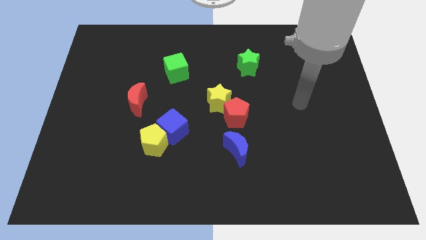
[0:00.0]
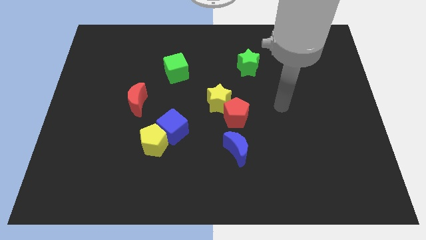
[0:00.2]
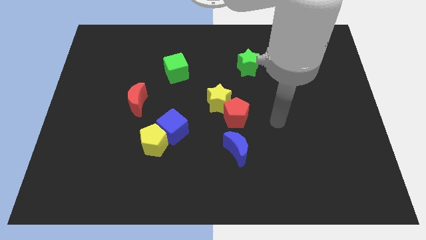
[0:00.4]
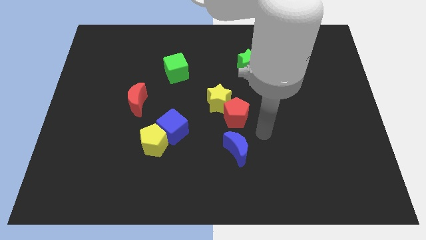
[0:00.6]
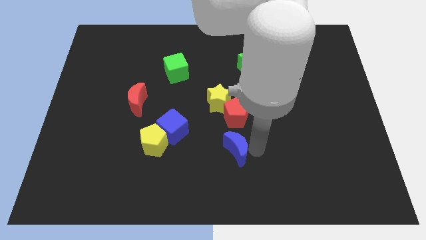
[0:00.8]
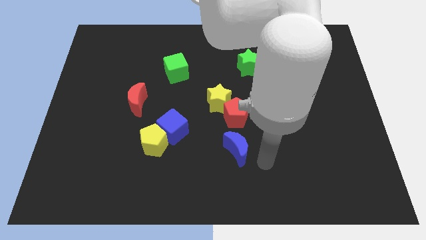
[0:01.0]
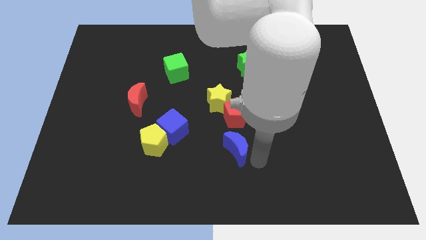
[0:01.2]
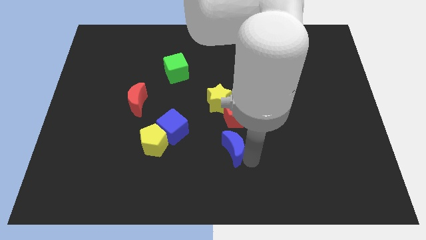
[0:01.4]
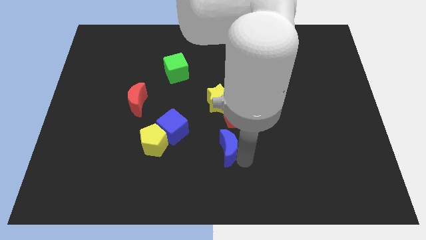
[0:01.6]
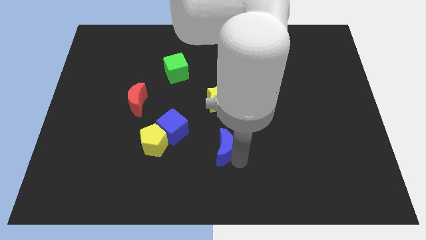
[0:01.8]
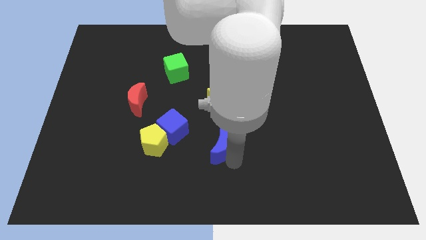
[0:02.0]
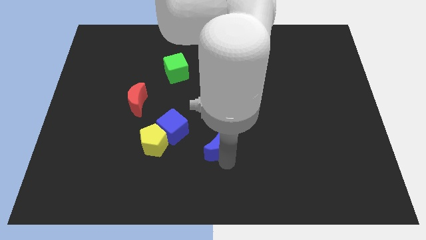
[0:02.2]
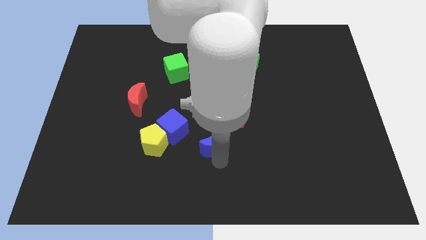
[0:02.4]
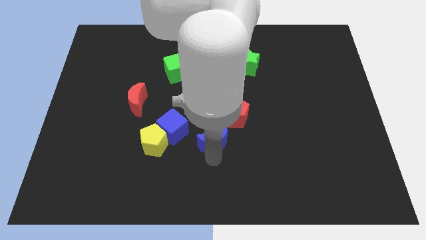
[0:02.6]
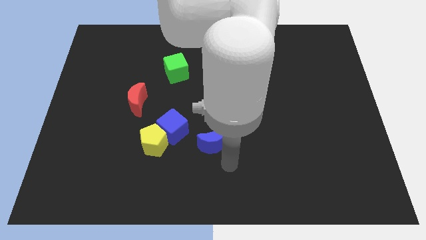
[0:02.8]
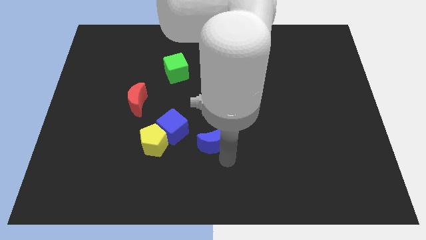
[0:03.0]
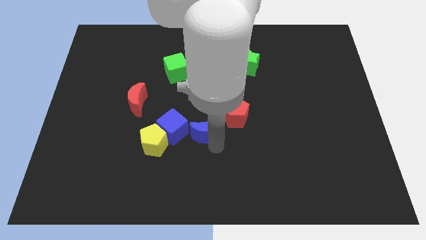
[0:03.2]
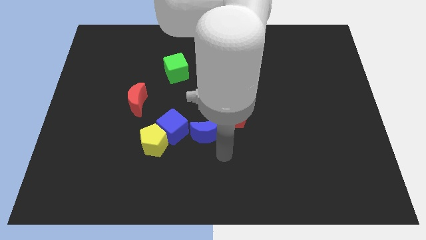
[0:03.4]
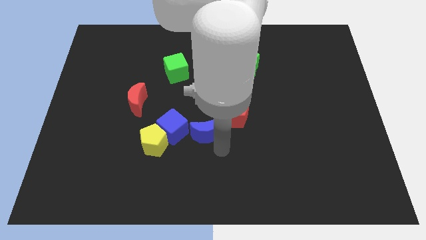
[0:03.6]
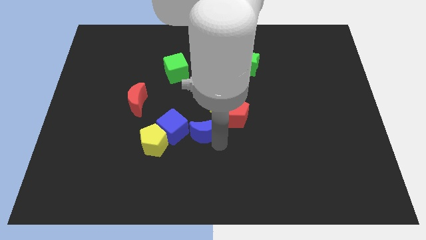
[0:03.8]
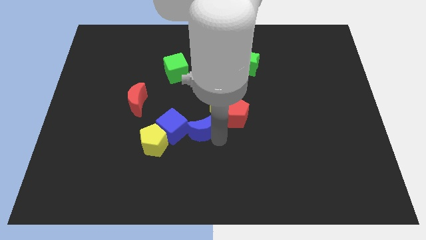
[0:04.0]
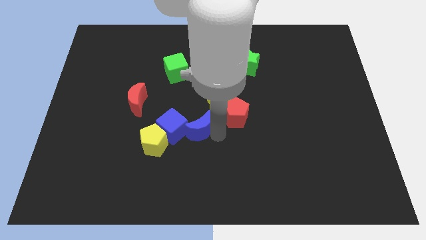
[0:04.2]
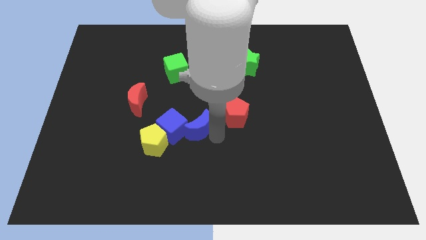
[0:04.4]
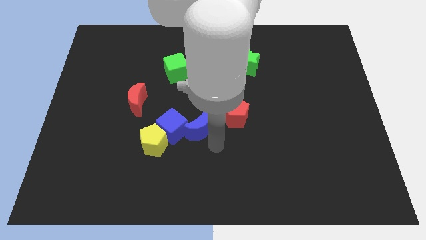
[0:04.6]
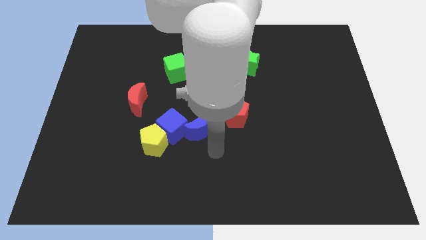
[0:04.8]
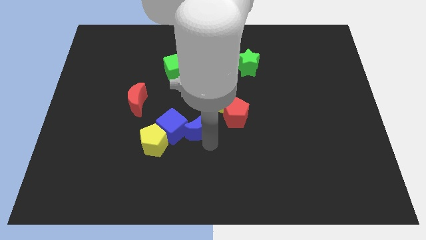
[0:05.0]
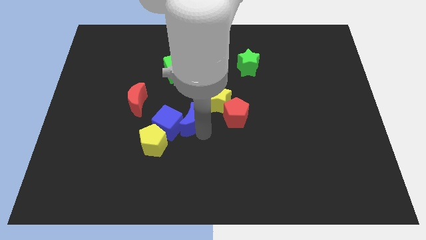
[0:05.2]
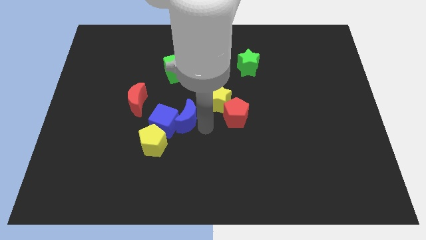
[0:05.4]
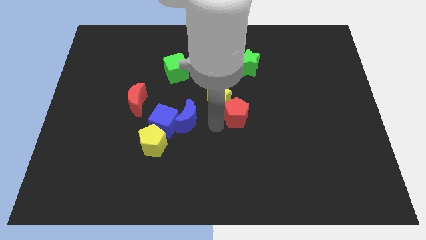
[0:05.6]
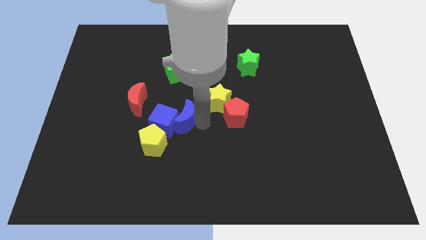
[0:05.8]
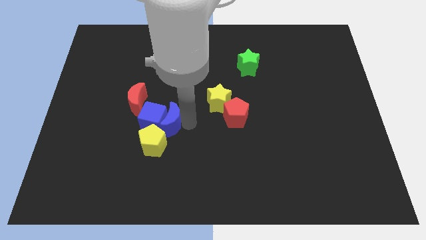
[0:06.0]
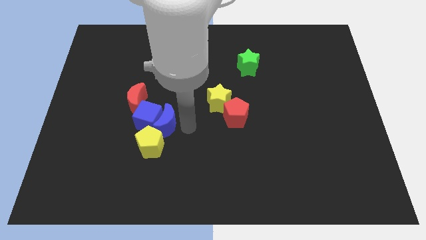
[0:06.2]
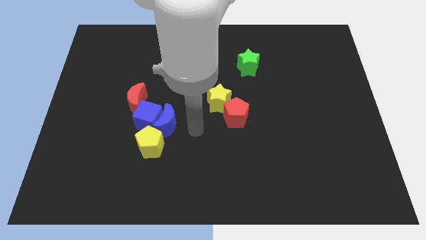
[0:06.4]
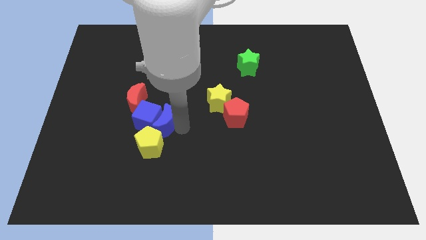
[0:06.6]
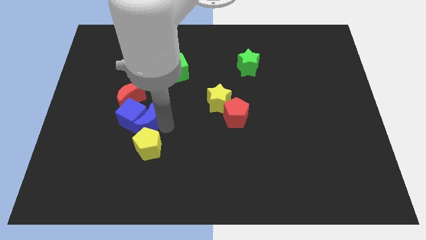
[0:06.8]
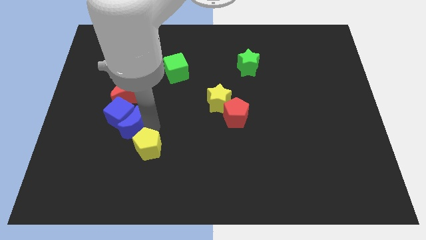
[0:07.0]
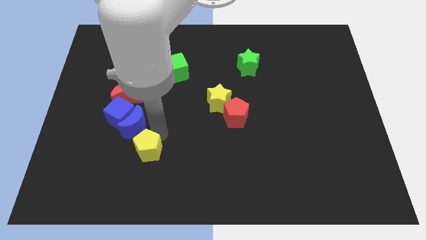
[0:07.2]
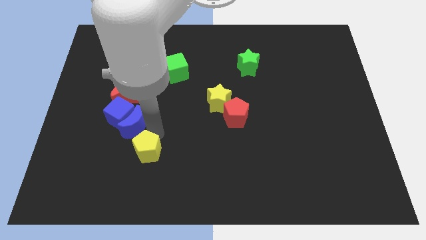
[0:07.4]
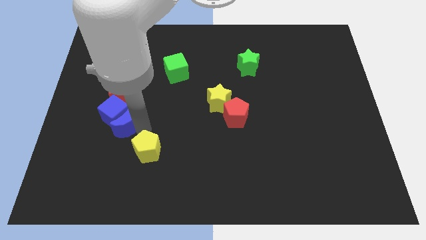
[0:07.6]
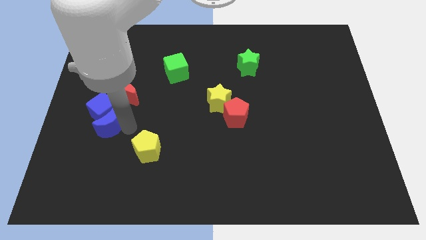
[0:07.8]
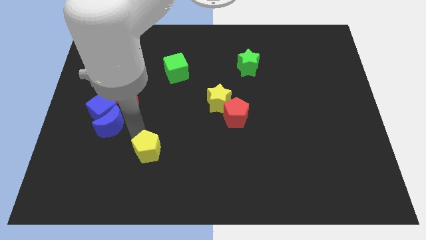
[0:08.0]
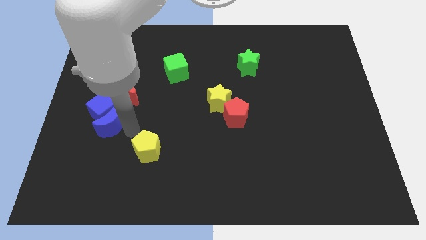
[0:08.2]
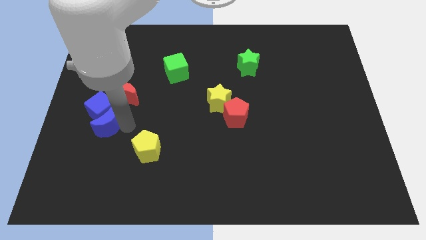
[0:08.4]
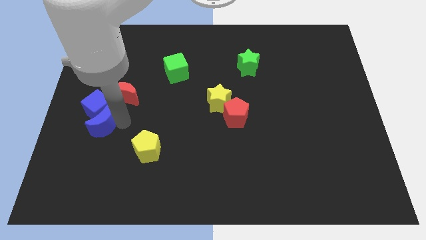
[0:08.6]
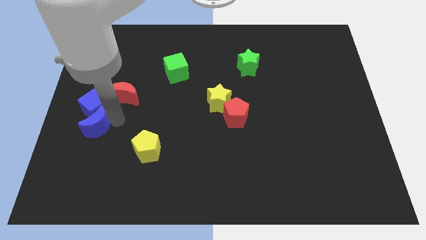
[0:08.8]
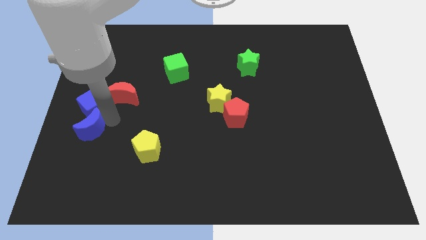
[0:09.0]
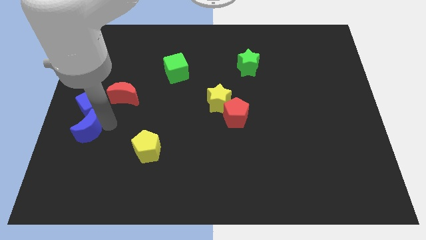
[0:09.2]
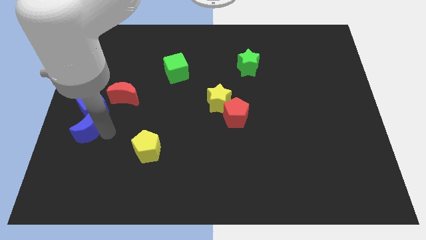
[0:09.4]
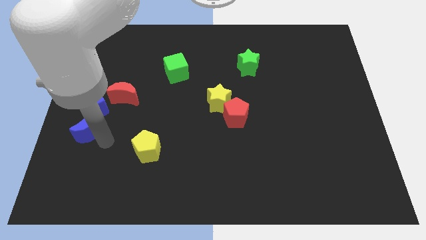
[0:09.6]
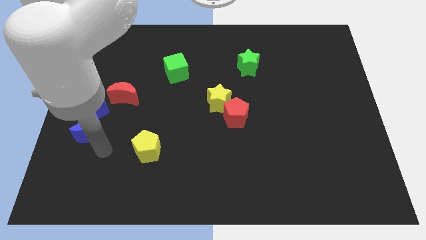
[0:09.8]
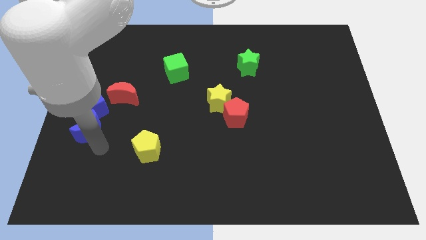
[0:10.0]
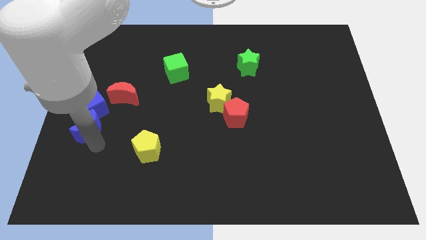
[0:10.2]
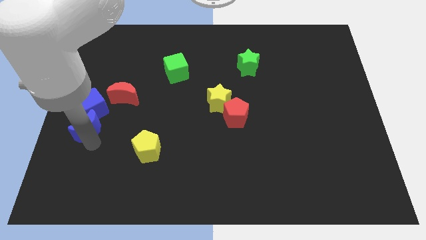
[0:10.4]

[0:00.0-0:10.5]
push the blue moon to the center left

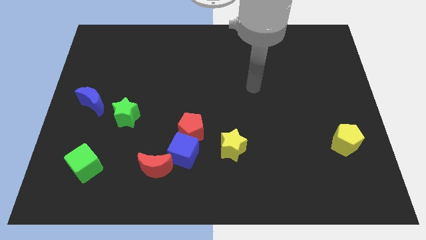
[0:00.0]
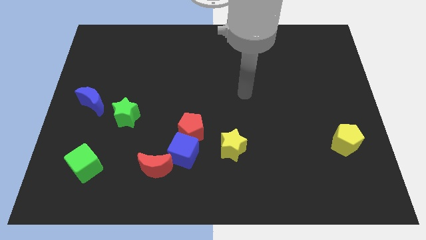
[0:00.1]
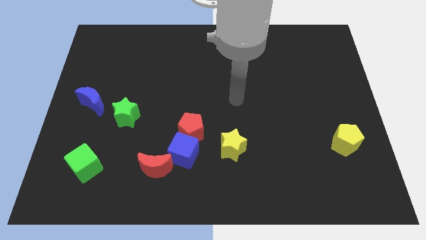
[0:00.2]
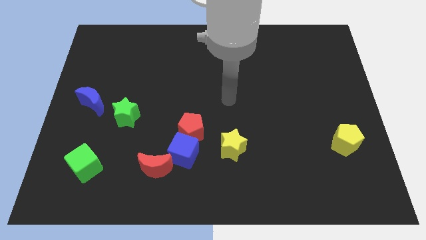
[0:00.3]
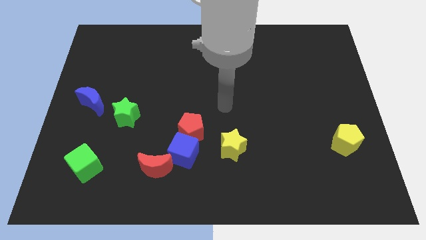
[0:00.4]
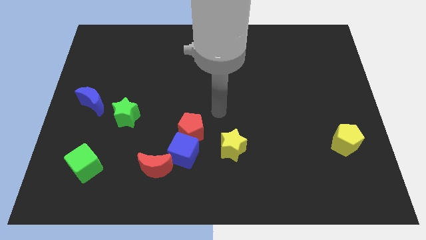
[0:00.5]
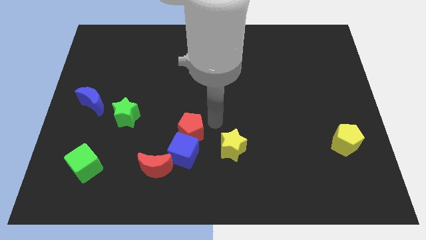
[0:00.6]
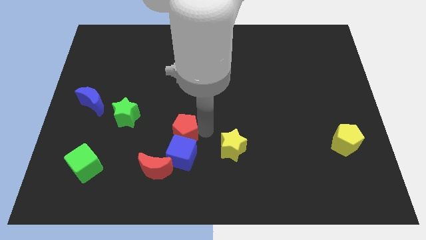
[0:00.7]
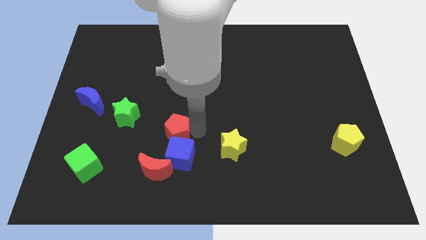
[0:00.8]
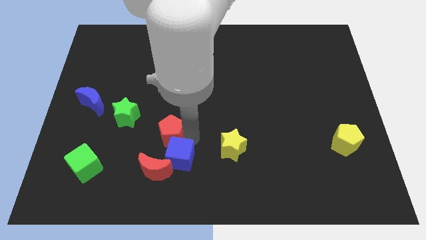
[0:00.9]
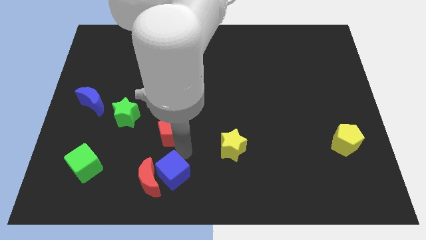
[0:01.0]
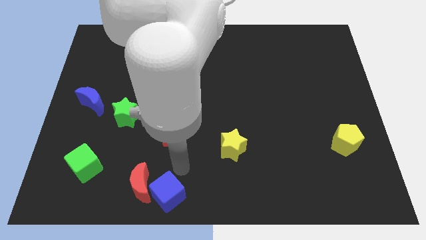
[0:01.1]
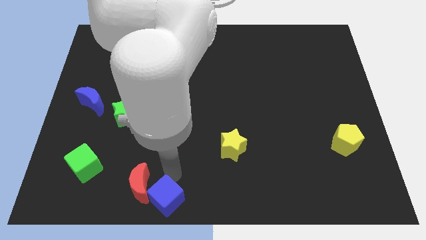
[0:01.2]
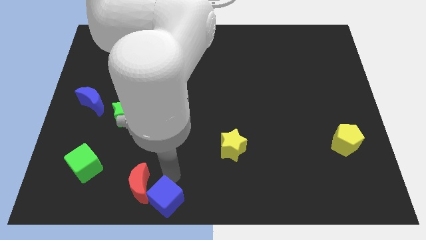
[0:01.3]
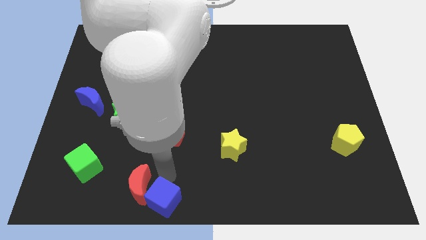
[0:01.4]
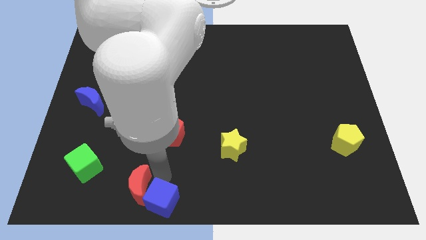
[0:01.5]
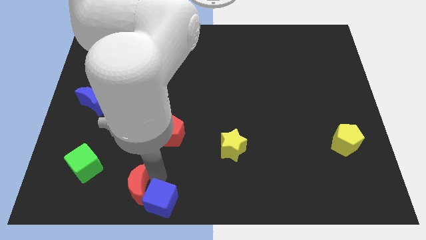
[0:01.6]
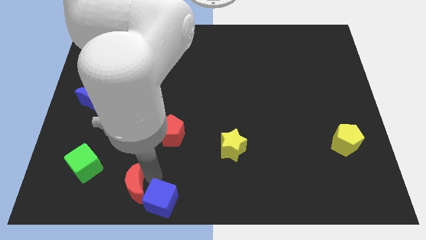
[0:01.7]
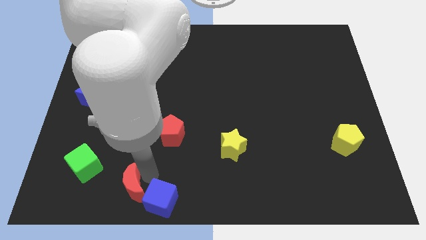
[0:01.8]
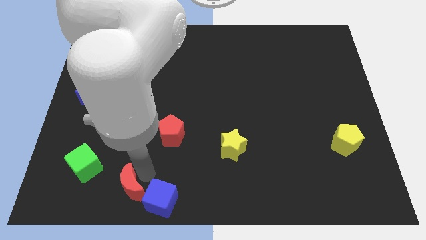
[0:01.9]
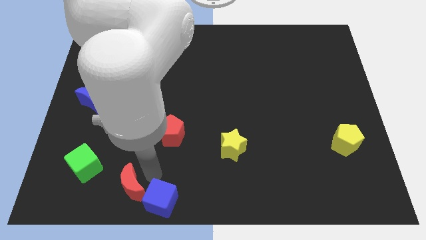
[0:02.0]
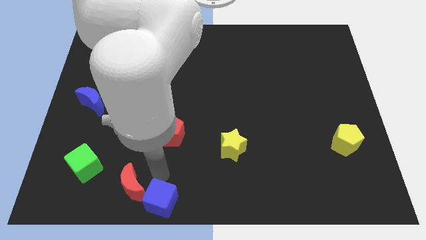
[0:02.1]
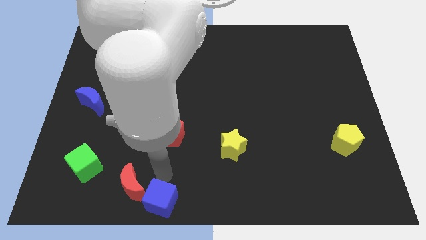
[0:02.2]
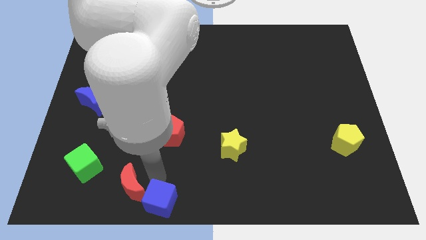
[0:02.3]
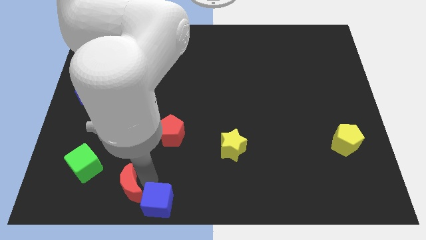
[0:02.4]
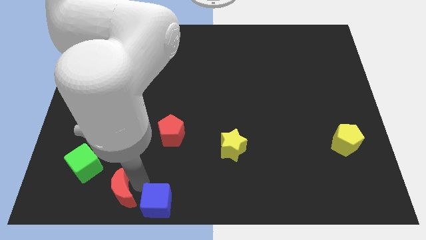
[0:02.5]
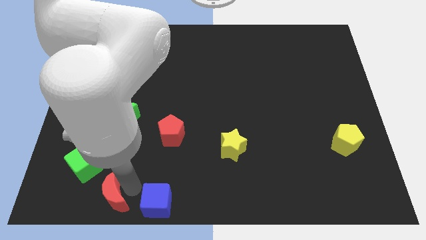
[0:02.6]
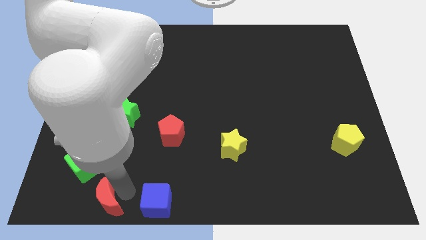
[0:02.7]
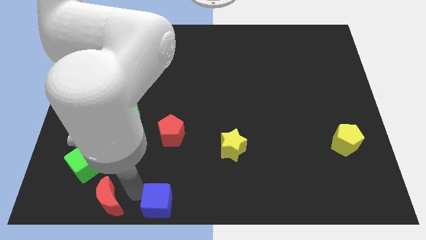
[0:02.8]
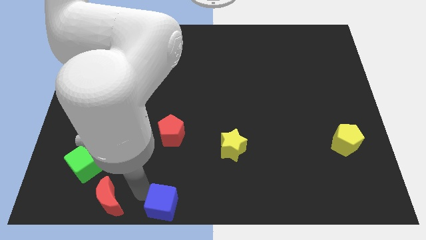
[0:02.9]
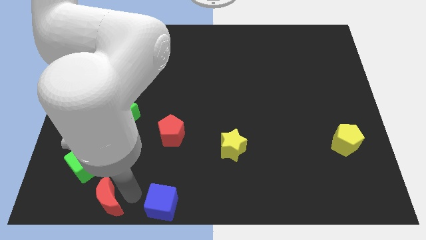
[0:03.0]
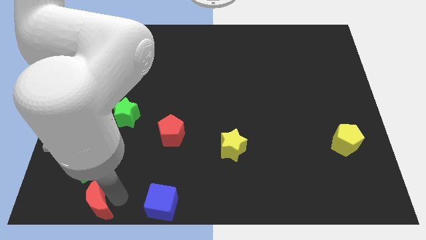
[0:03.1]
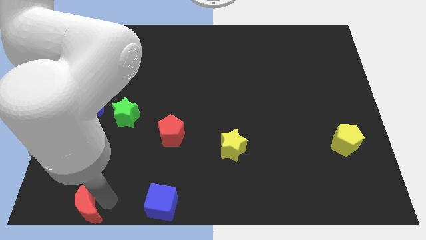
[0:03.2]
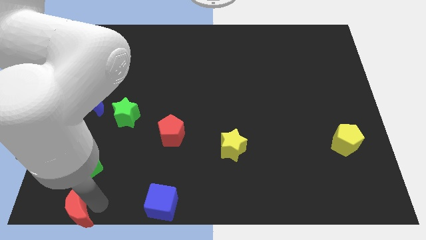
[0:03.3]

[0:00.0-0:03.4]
slide the red moon to the bottom left

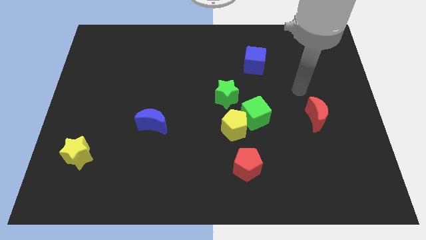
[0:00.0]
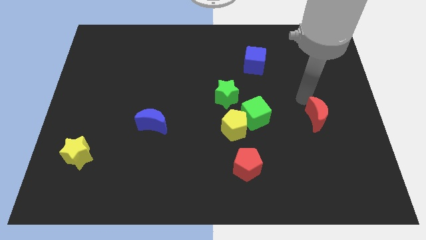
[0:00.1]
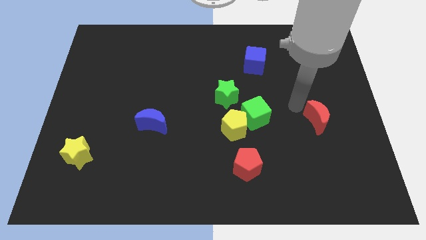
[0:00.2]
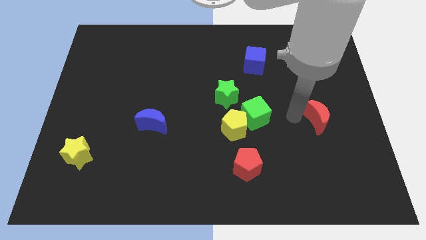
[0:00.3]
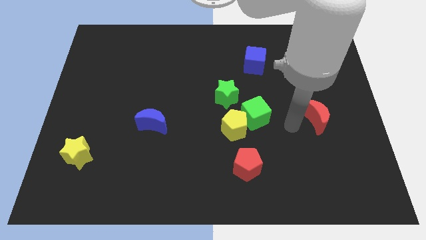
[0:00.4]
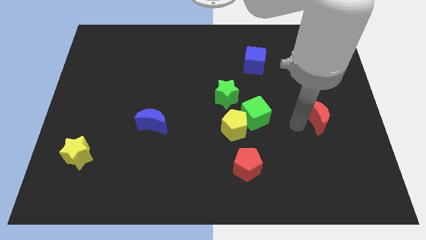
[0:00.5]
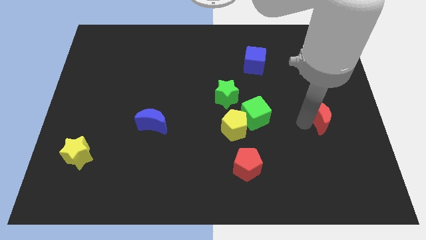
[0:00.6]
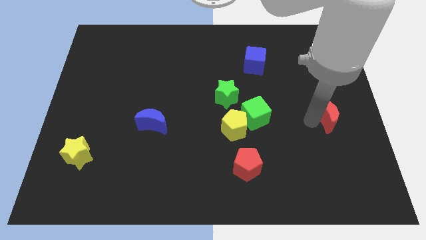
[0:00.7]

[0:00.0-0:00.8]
slide the red moon to the right side
